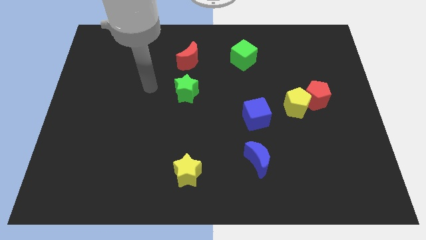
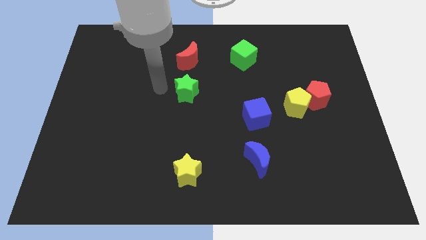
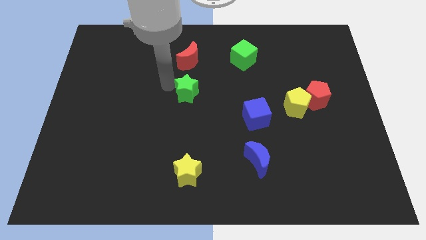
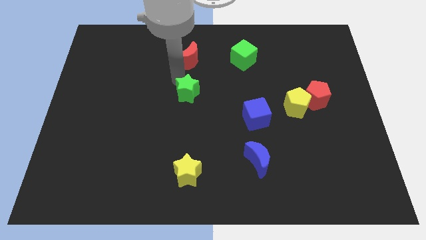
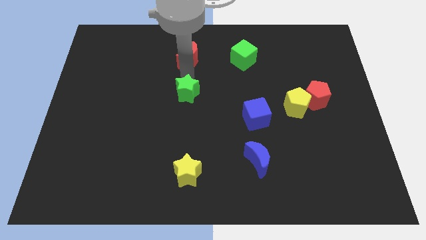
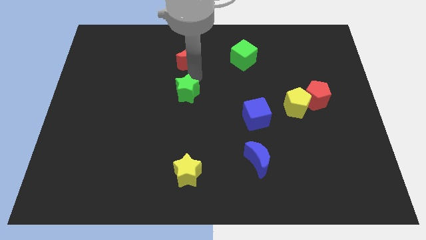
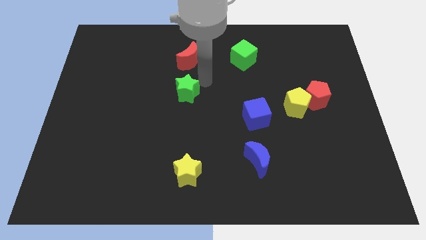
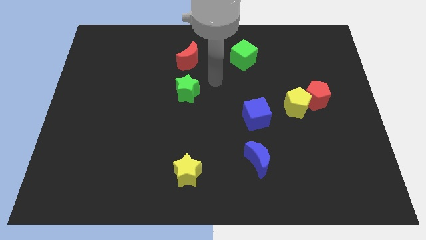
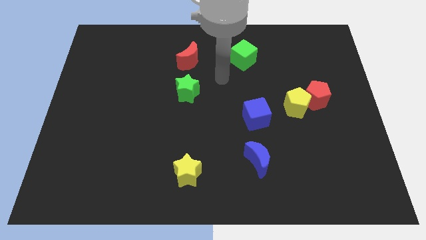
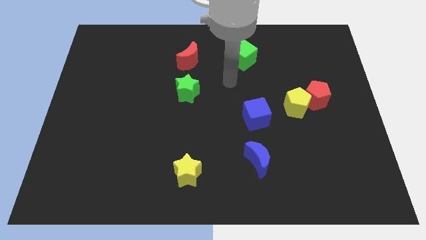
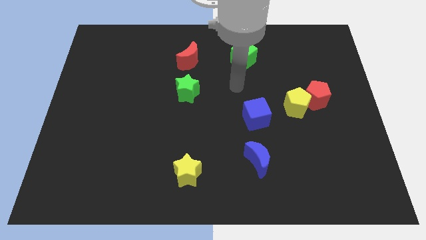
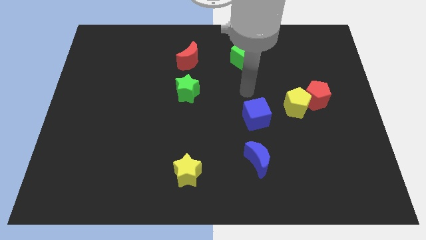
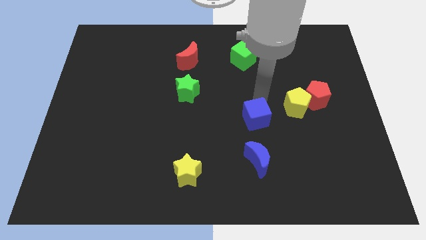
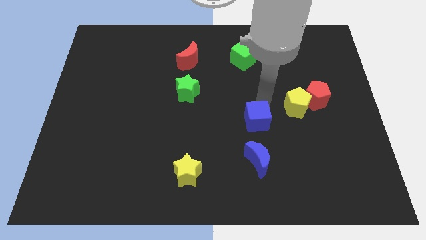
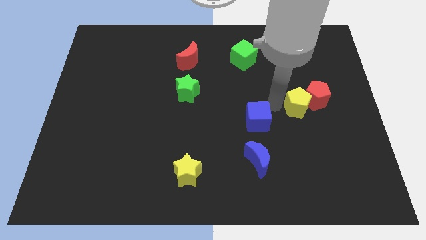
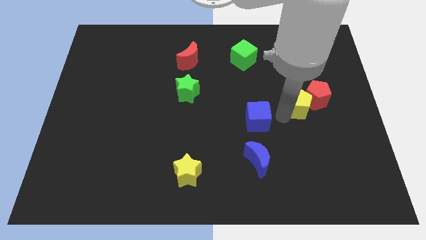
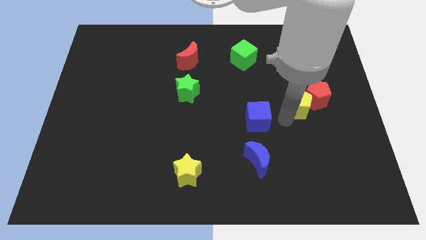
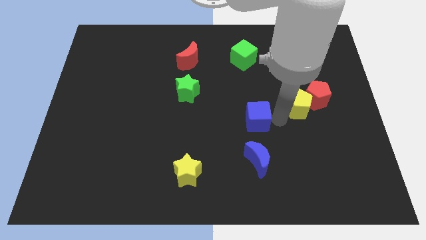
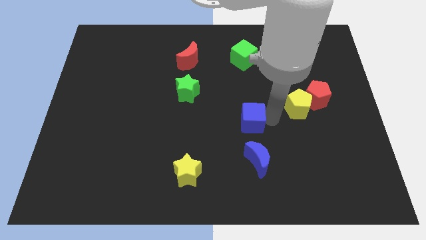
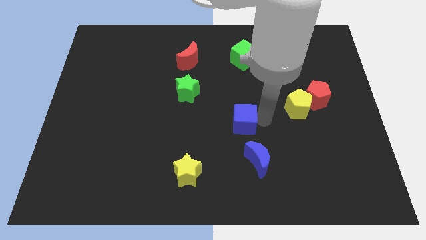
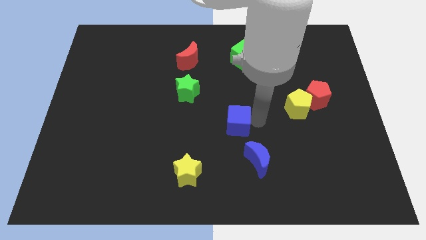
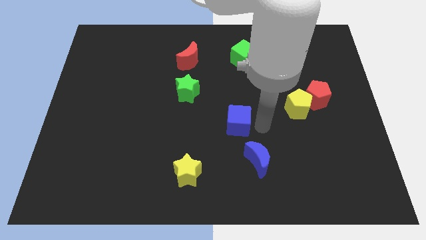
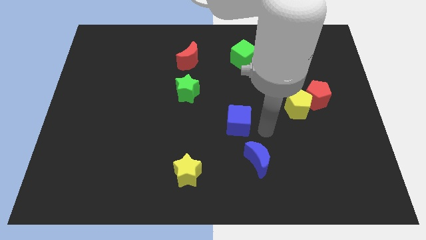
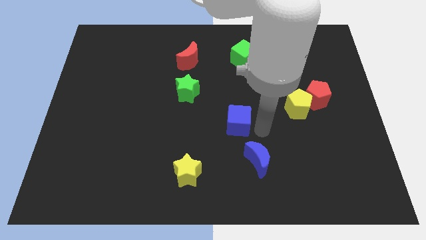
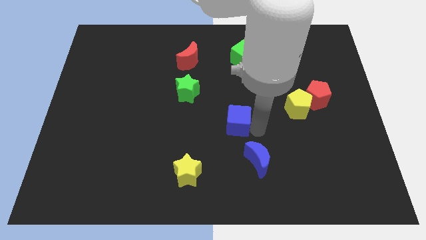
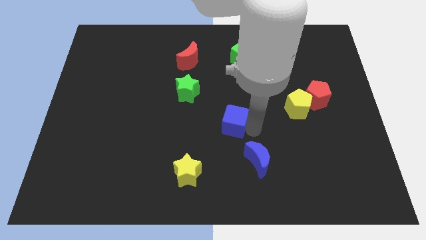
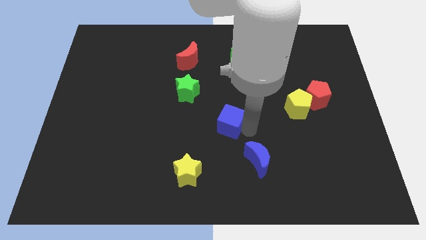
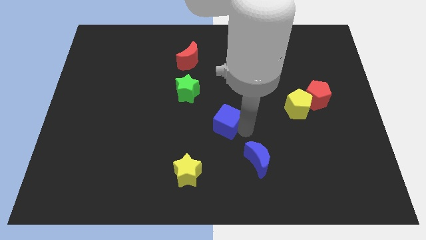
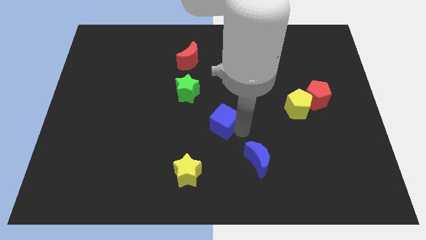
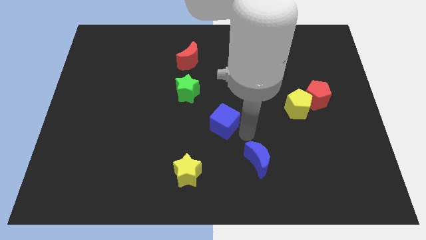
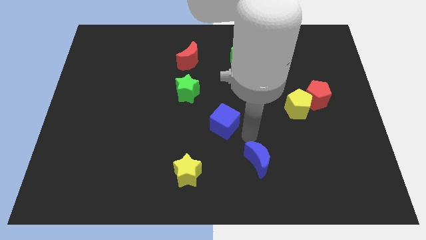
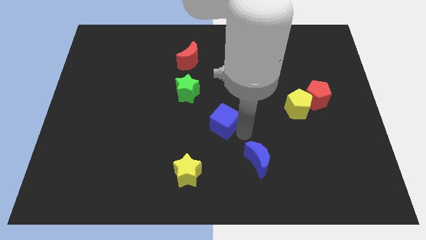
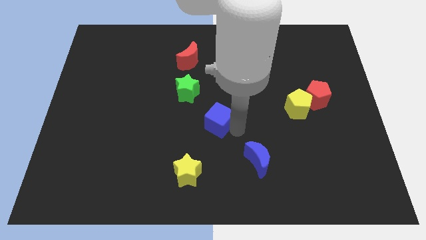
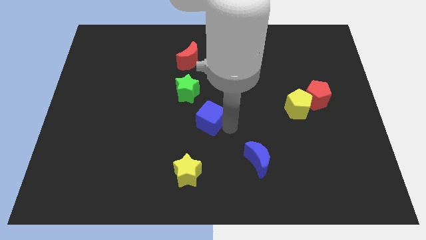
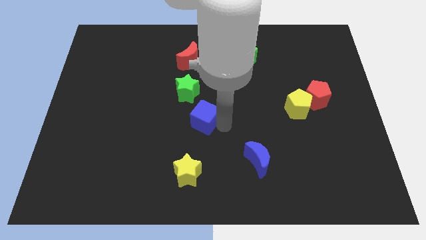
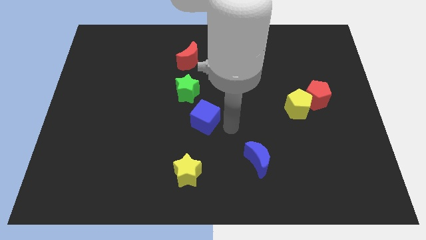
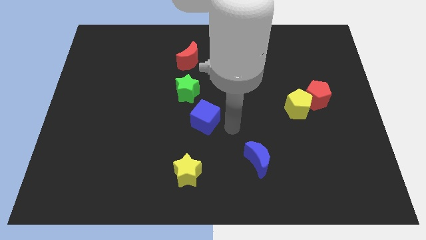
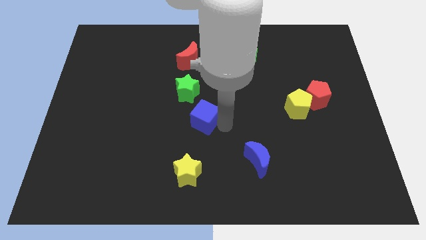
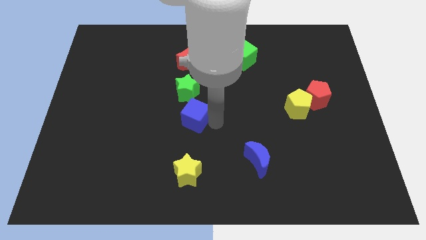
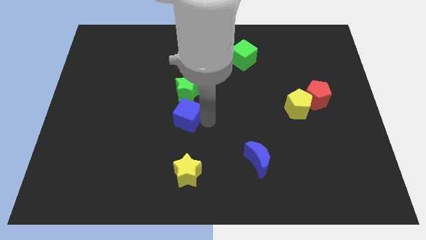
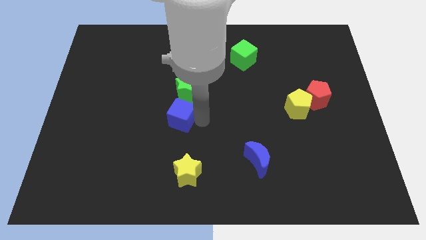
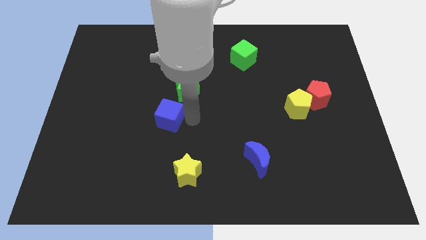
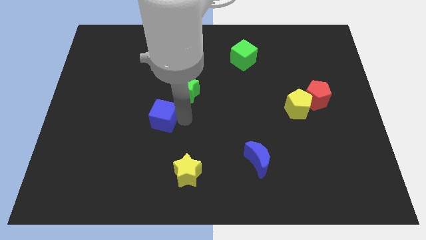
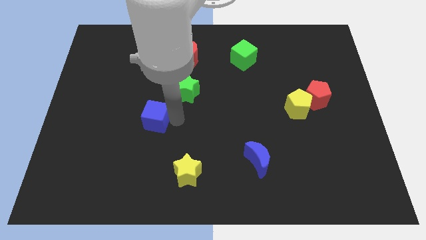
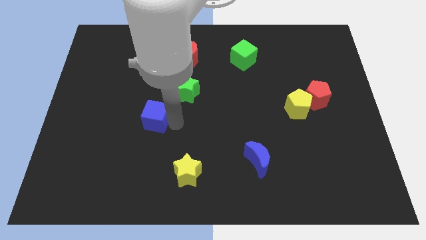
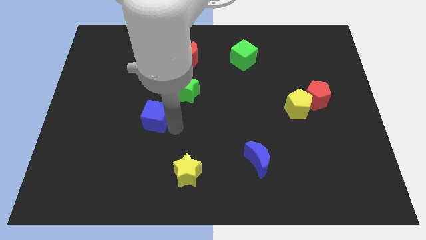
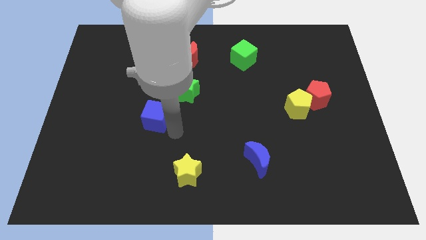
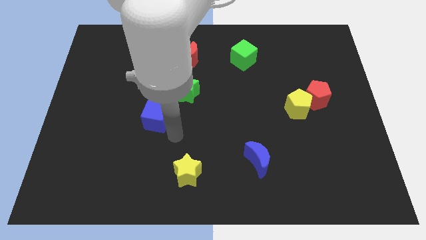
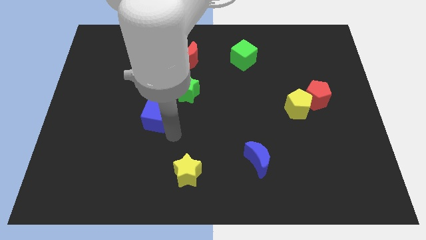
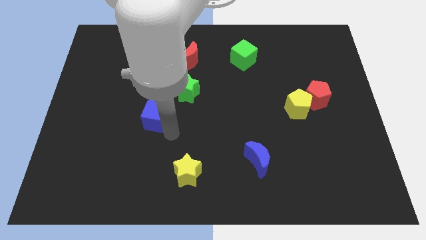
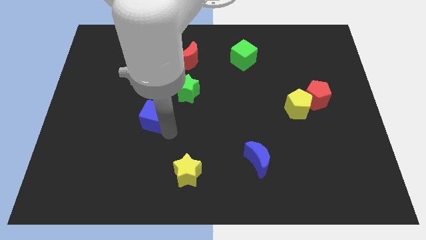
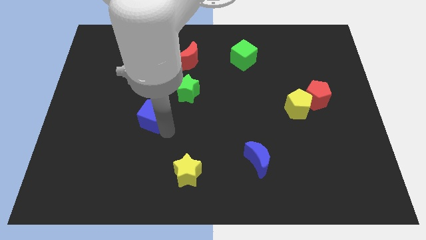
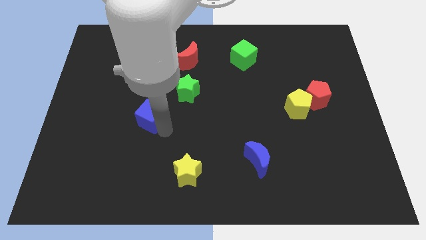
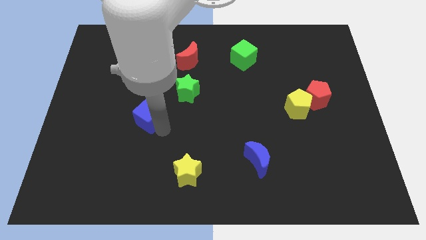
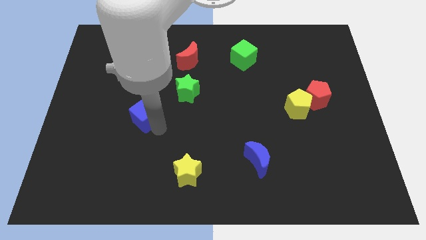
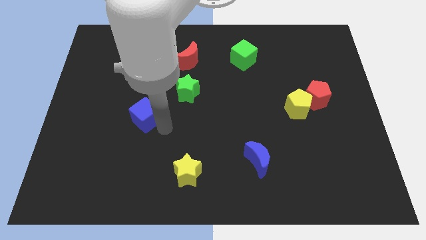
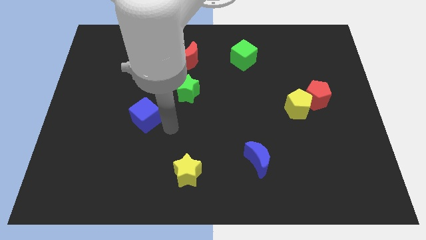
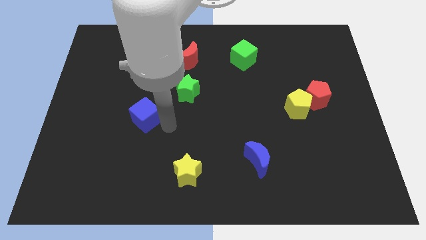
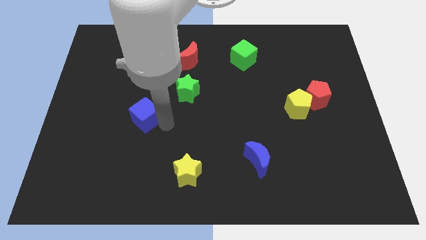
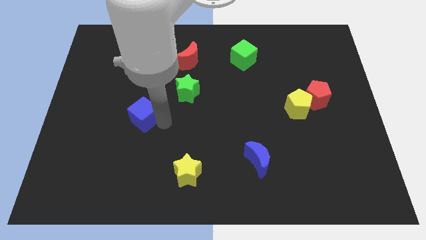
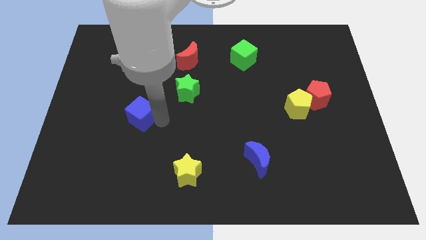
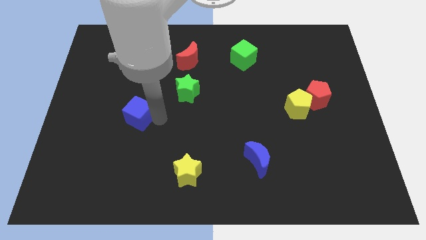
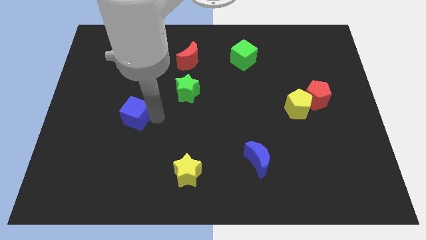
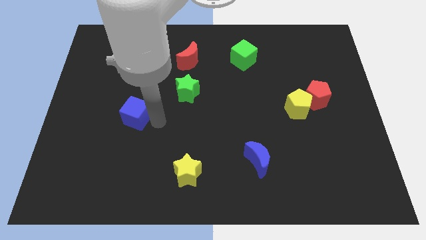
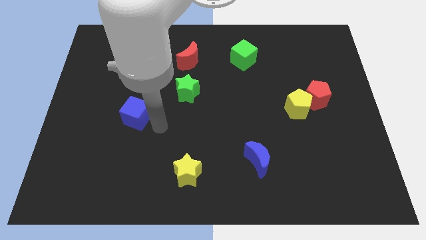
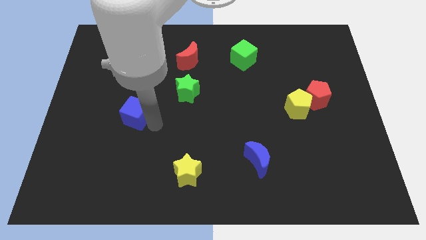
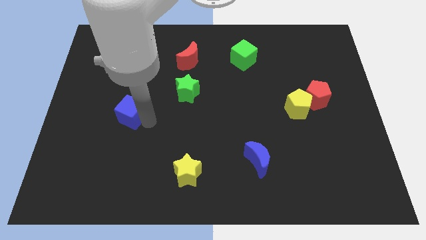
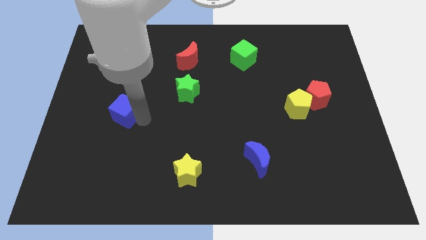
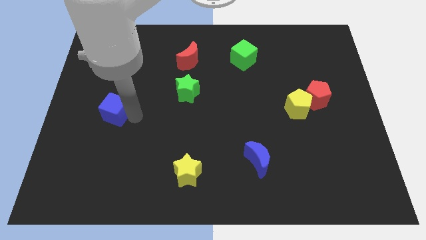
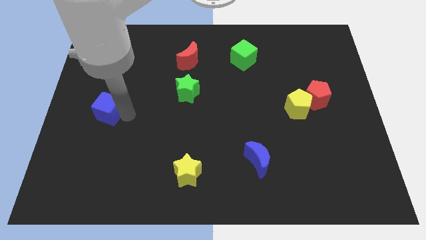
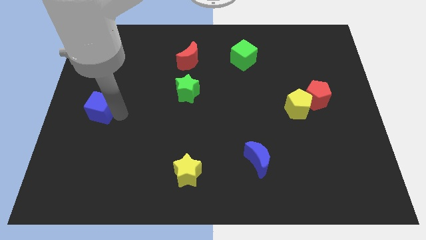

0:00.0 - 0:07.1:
move the blue cube to the left side of the board
